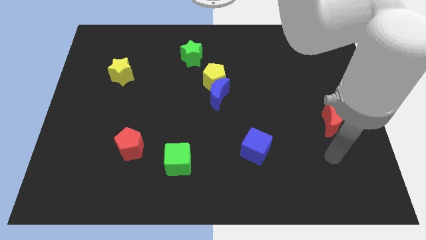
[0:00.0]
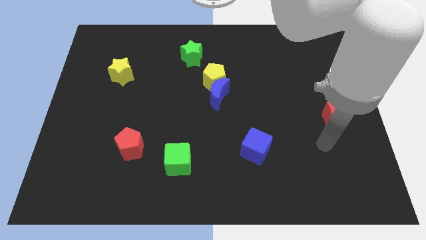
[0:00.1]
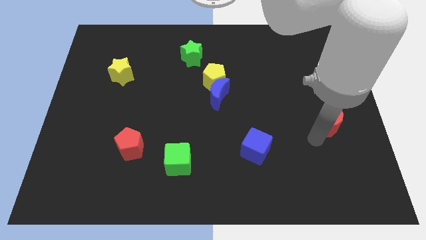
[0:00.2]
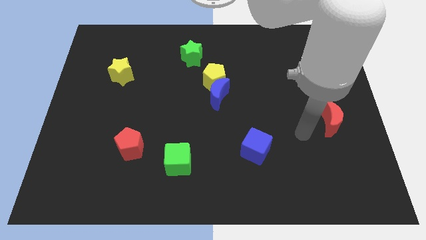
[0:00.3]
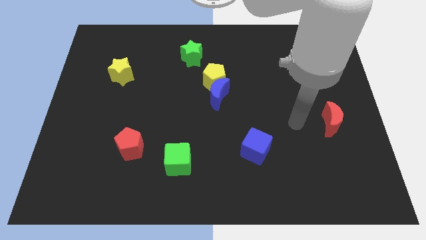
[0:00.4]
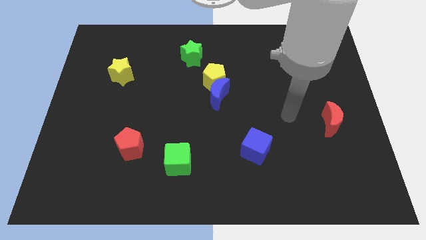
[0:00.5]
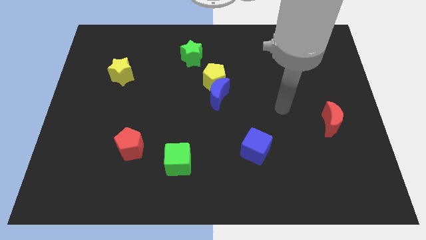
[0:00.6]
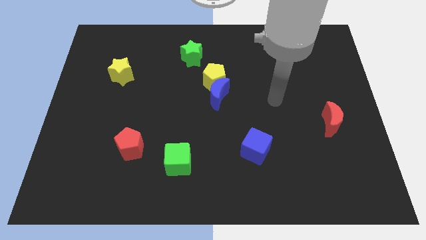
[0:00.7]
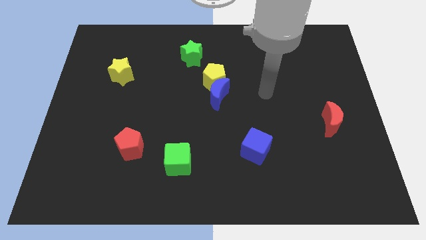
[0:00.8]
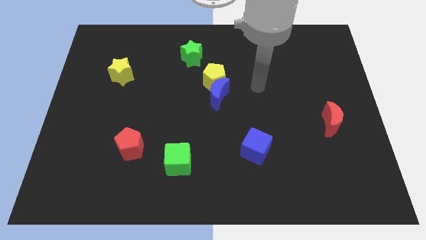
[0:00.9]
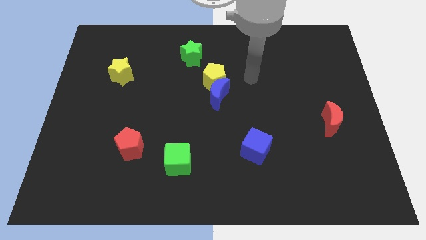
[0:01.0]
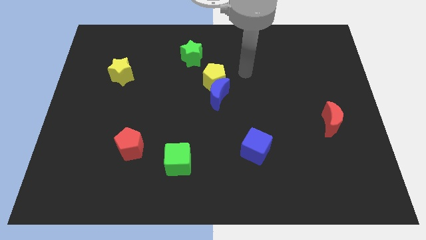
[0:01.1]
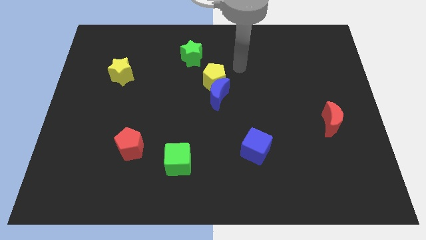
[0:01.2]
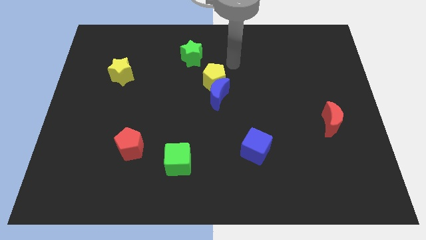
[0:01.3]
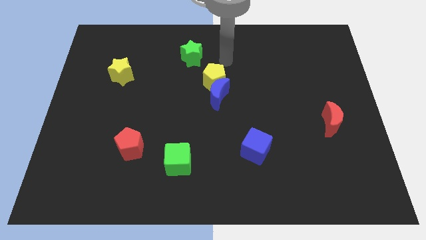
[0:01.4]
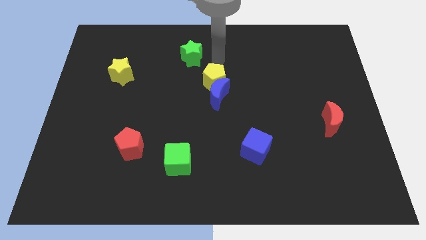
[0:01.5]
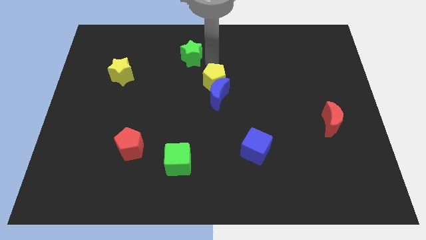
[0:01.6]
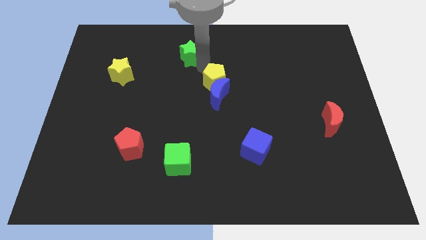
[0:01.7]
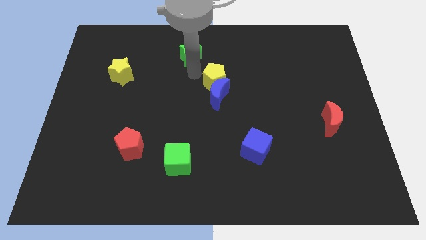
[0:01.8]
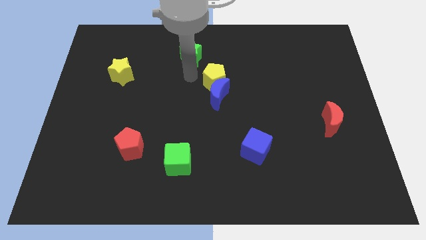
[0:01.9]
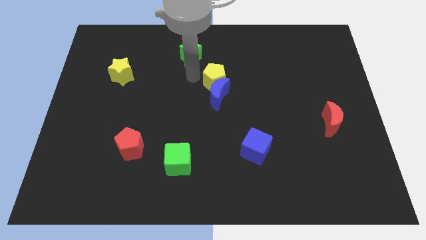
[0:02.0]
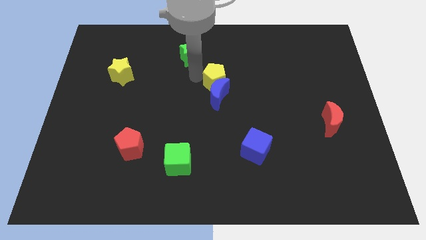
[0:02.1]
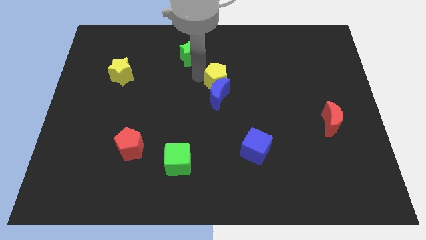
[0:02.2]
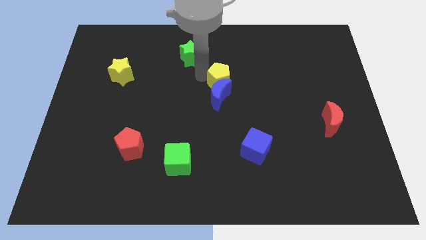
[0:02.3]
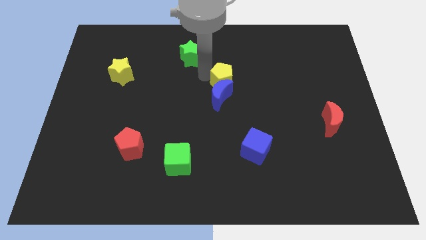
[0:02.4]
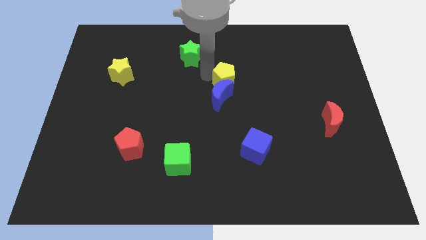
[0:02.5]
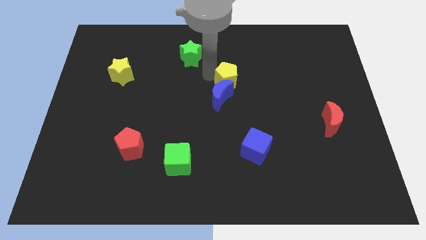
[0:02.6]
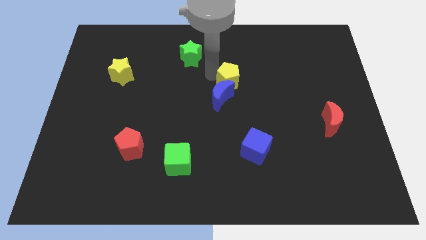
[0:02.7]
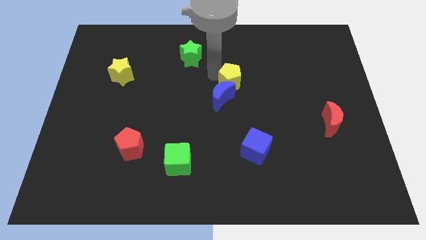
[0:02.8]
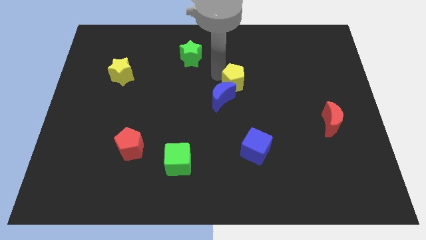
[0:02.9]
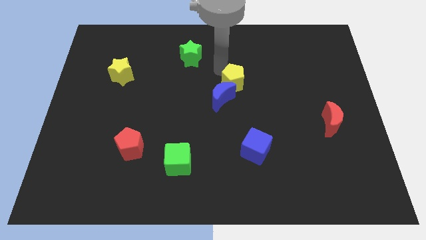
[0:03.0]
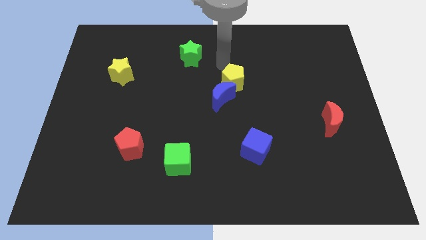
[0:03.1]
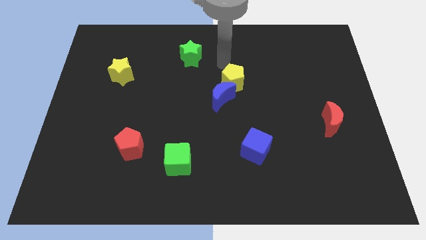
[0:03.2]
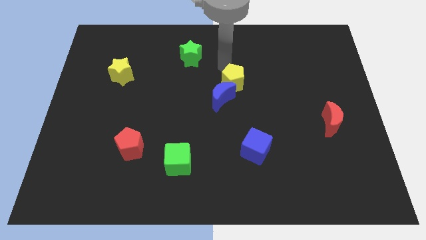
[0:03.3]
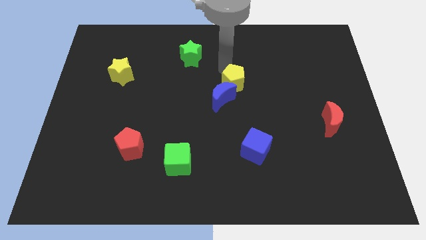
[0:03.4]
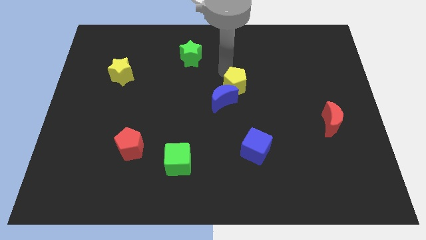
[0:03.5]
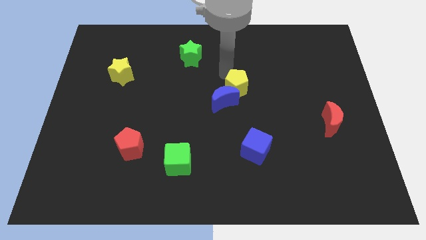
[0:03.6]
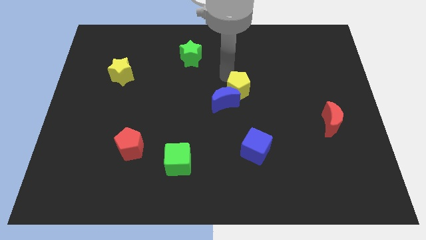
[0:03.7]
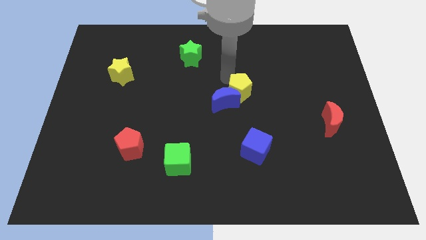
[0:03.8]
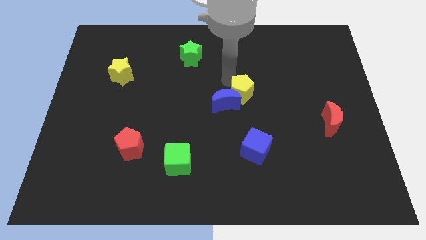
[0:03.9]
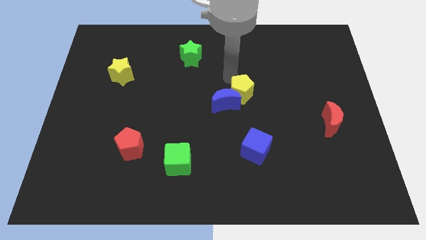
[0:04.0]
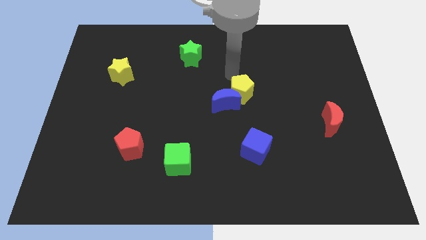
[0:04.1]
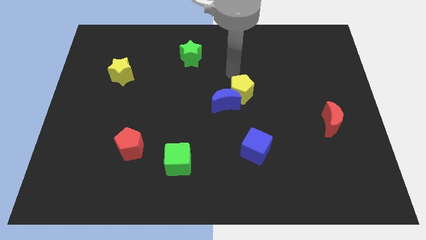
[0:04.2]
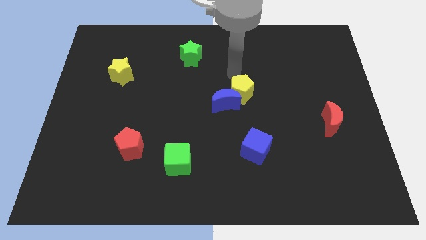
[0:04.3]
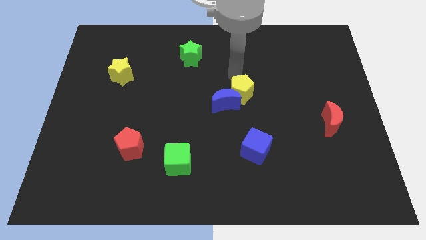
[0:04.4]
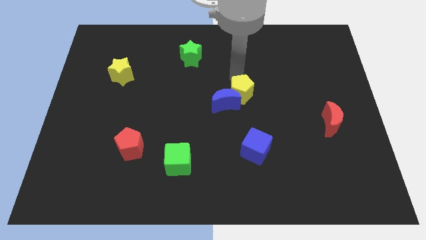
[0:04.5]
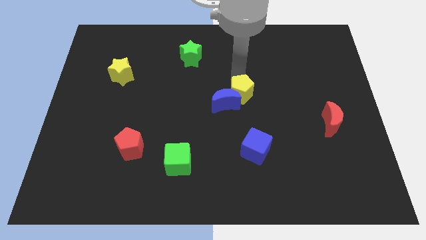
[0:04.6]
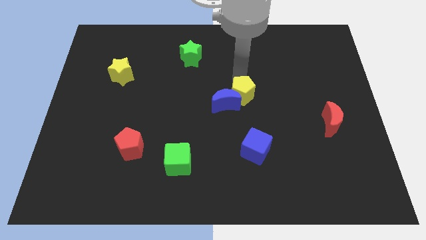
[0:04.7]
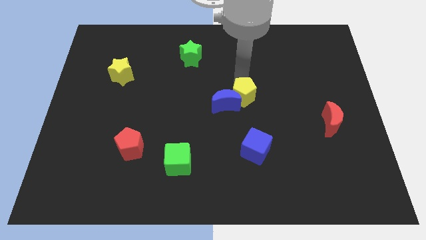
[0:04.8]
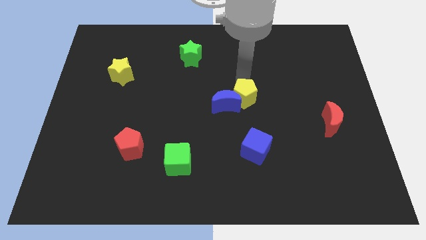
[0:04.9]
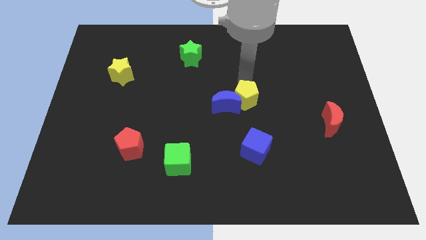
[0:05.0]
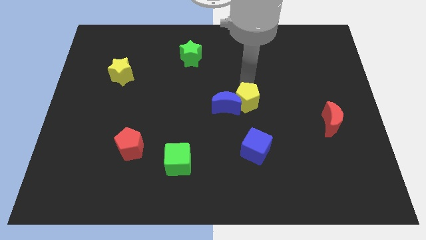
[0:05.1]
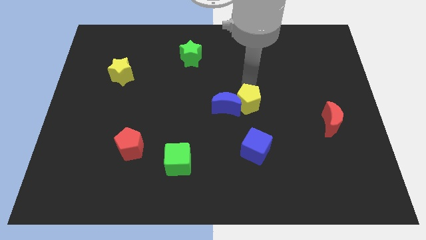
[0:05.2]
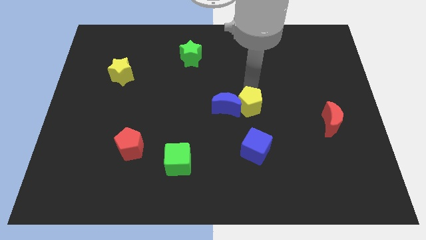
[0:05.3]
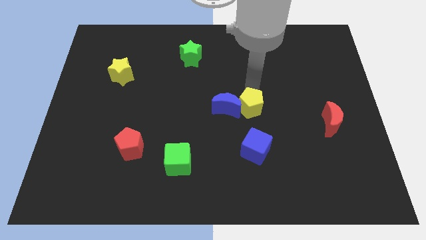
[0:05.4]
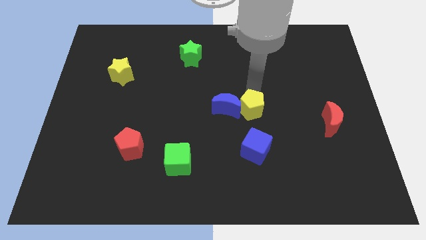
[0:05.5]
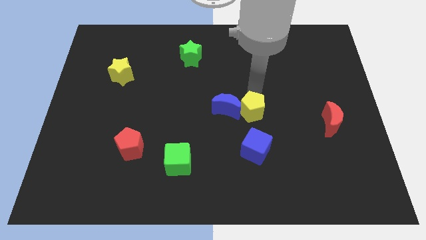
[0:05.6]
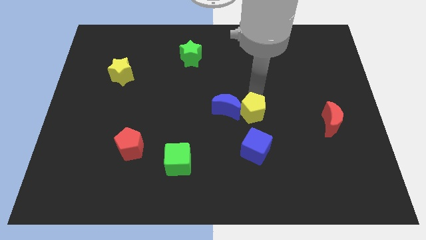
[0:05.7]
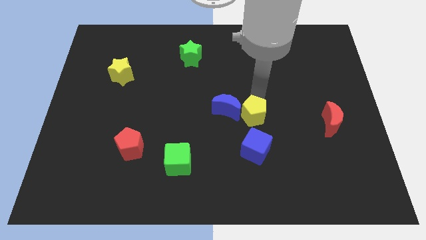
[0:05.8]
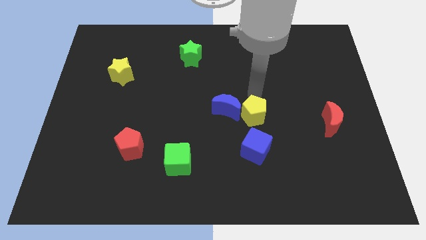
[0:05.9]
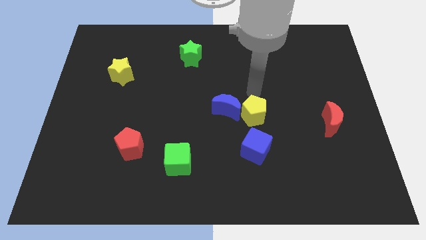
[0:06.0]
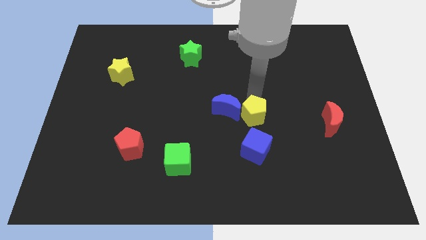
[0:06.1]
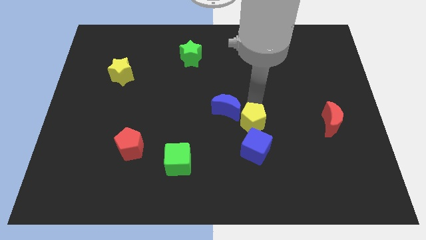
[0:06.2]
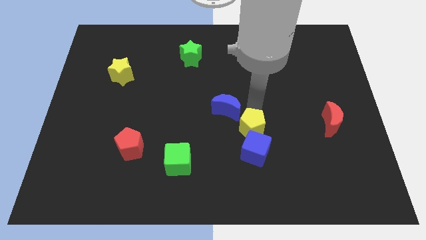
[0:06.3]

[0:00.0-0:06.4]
move the yellow pentagon close to the blue cube

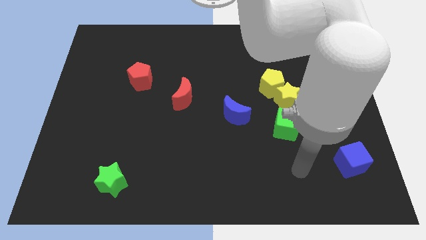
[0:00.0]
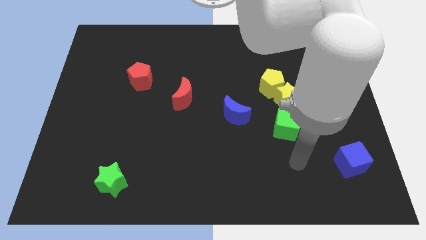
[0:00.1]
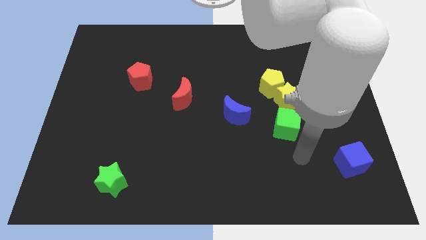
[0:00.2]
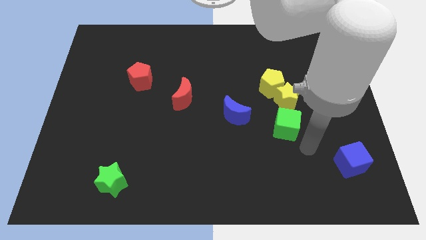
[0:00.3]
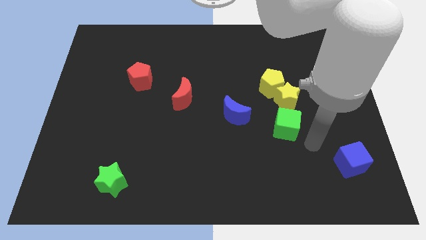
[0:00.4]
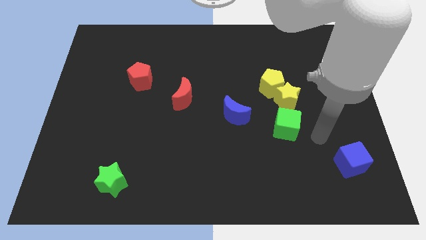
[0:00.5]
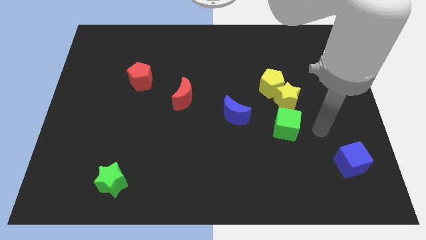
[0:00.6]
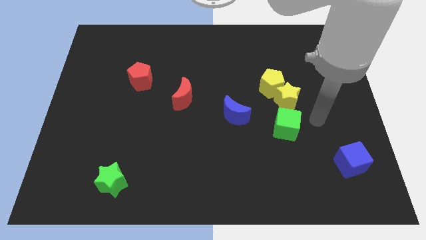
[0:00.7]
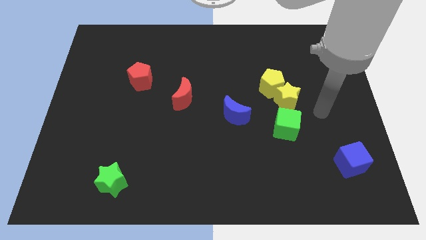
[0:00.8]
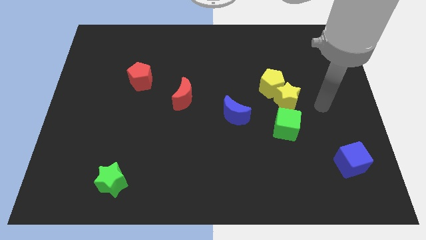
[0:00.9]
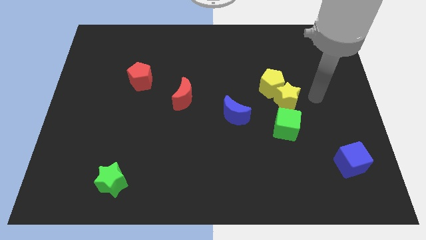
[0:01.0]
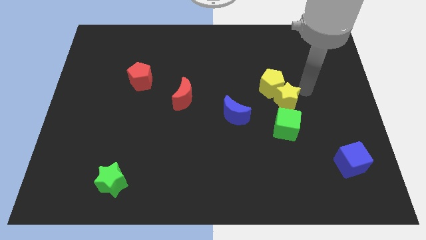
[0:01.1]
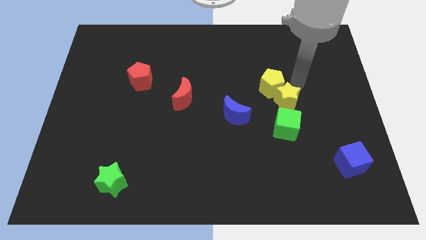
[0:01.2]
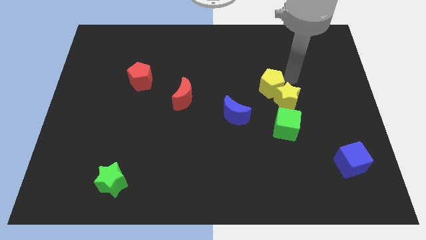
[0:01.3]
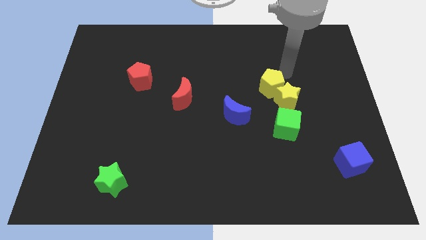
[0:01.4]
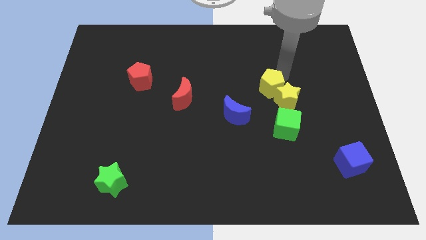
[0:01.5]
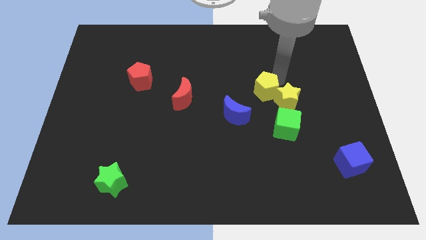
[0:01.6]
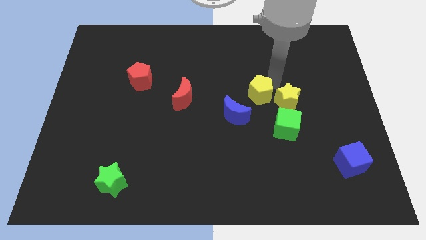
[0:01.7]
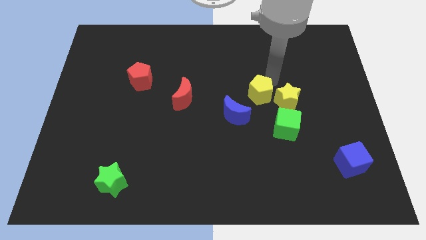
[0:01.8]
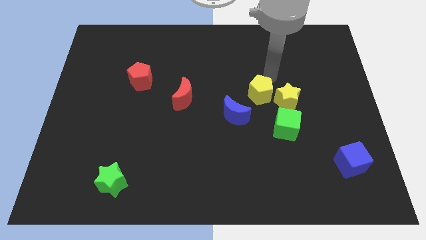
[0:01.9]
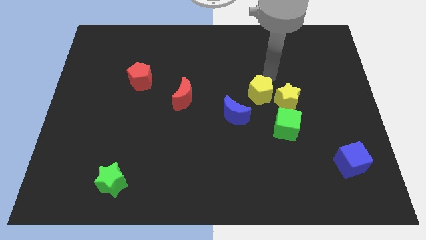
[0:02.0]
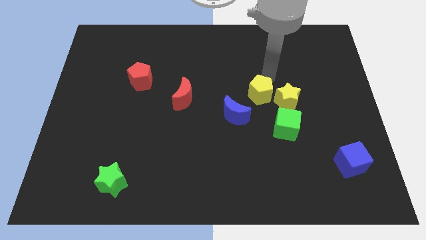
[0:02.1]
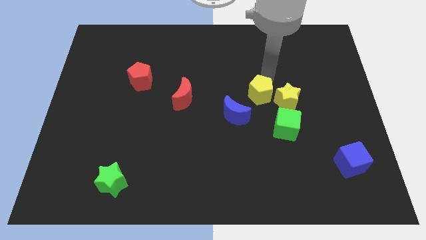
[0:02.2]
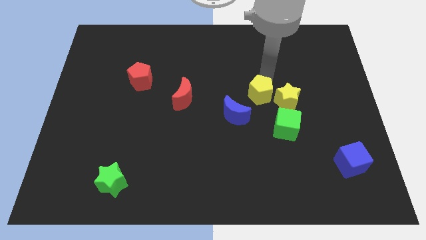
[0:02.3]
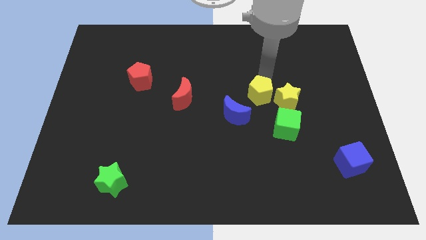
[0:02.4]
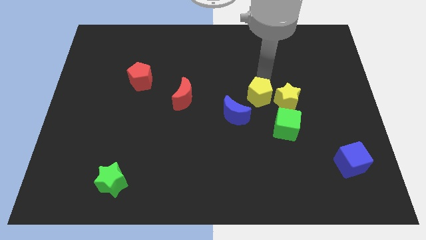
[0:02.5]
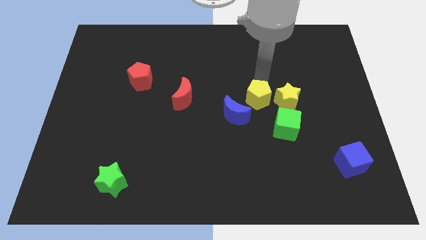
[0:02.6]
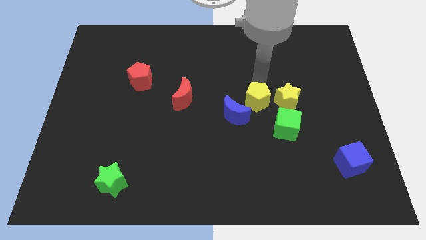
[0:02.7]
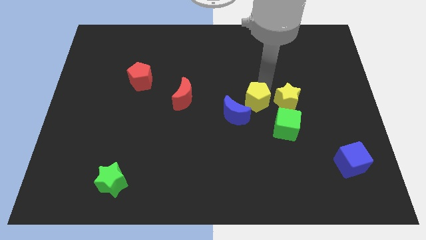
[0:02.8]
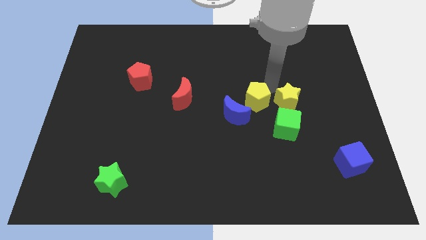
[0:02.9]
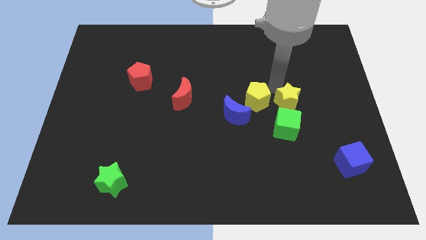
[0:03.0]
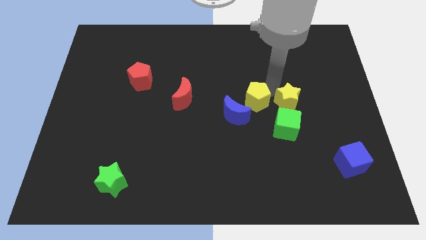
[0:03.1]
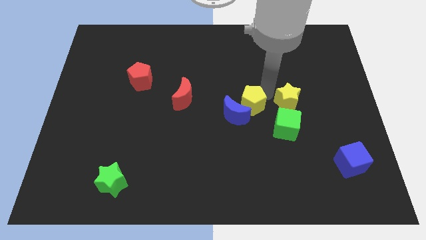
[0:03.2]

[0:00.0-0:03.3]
put the yellow pentagon close to the blue moon
